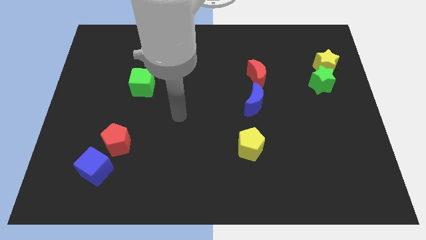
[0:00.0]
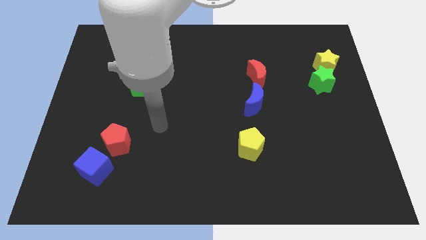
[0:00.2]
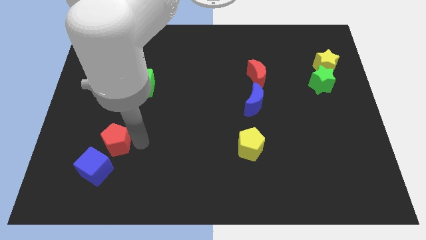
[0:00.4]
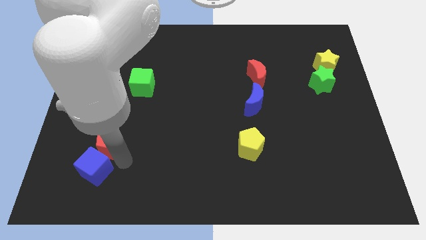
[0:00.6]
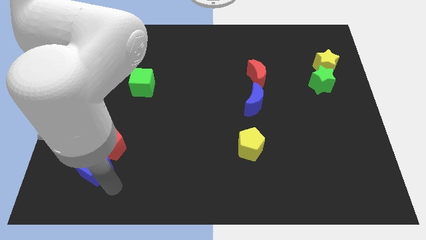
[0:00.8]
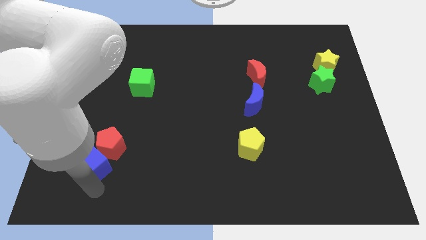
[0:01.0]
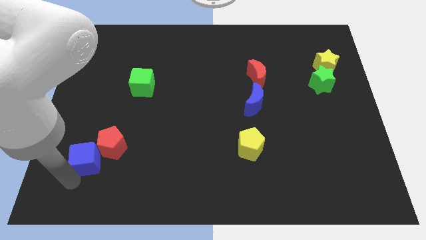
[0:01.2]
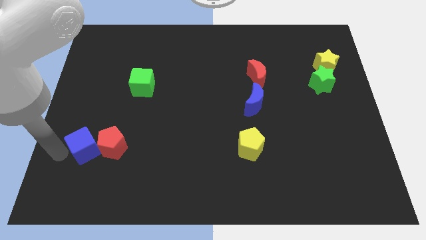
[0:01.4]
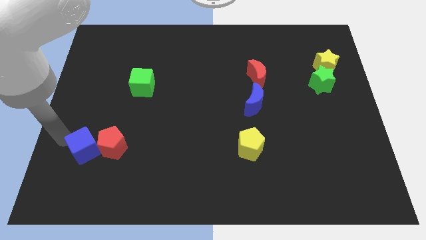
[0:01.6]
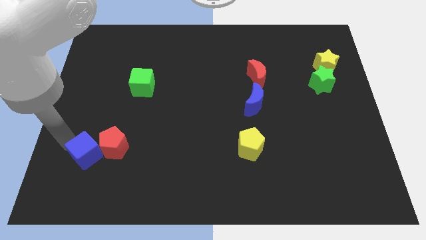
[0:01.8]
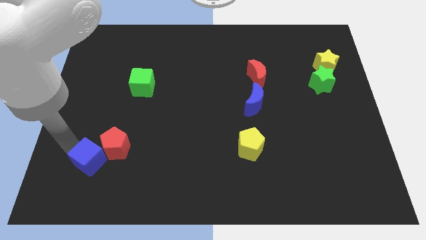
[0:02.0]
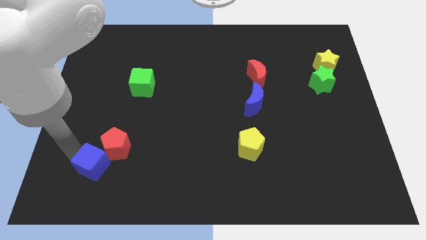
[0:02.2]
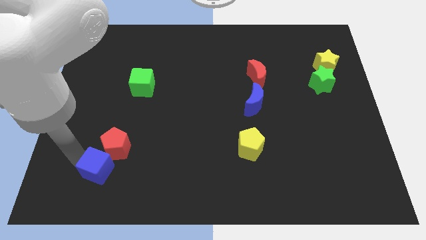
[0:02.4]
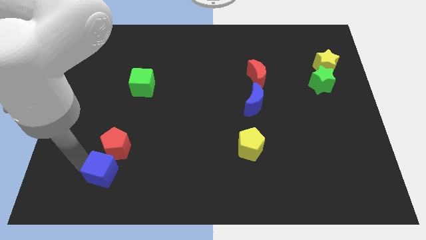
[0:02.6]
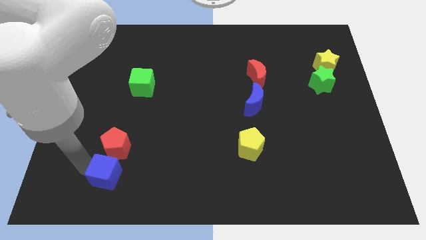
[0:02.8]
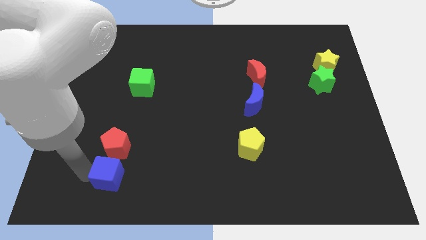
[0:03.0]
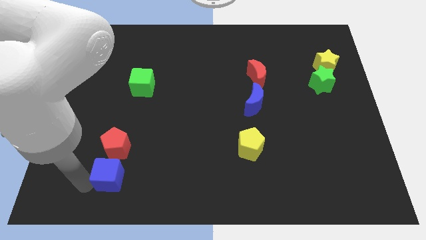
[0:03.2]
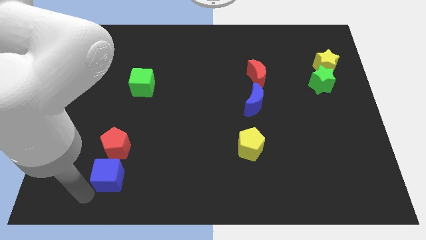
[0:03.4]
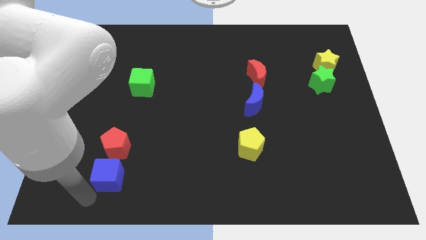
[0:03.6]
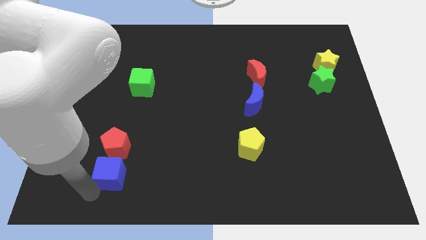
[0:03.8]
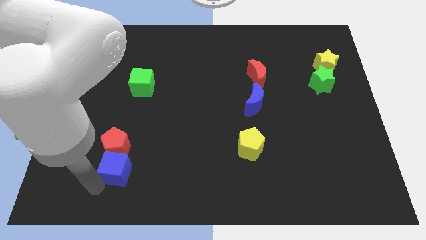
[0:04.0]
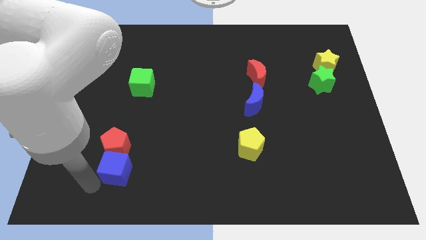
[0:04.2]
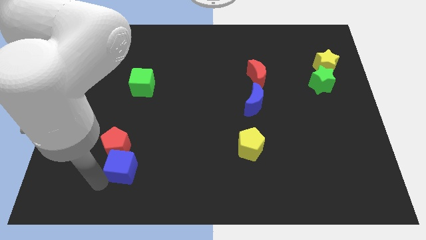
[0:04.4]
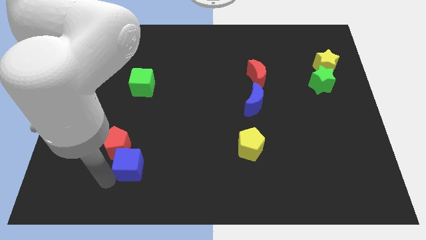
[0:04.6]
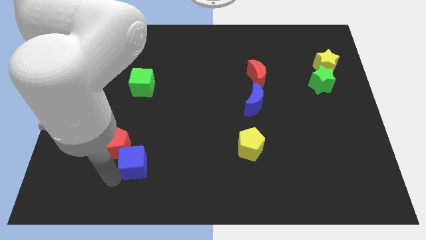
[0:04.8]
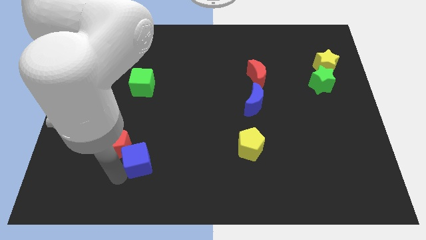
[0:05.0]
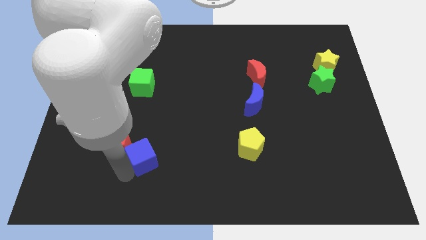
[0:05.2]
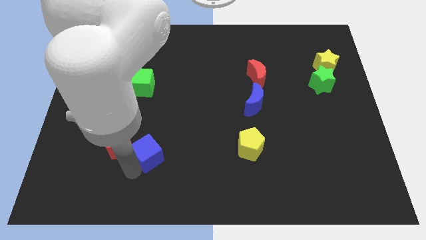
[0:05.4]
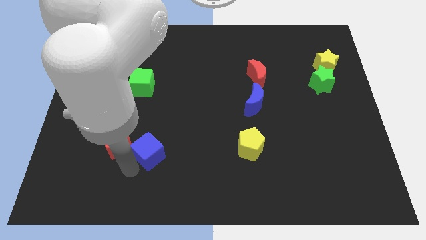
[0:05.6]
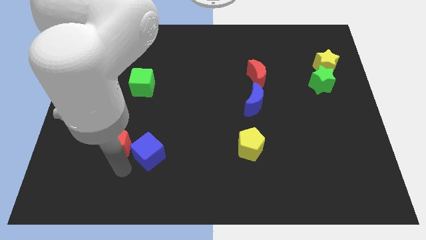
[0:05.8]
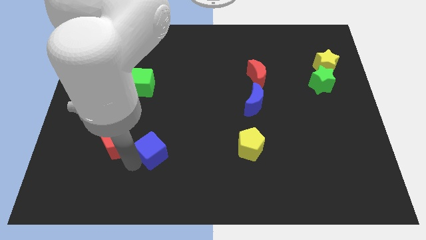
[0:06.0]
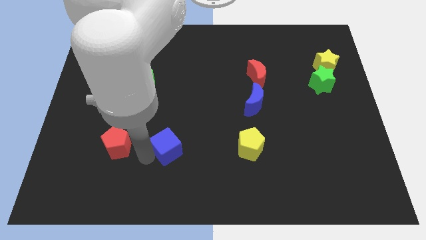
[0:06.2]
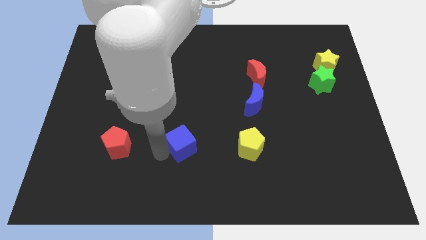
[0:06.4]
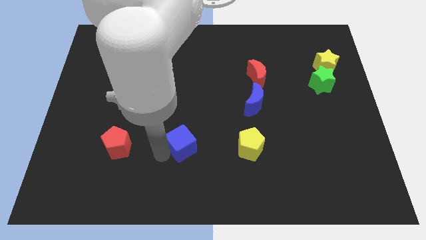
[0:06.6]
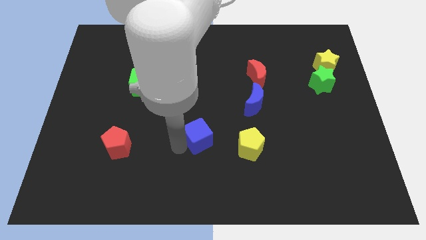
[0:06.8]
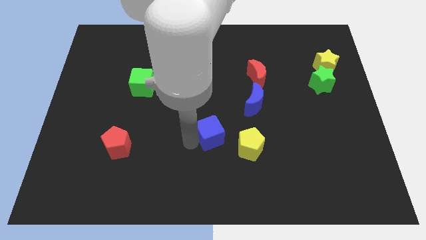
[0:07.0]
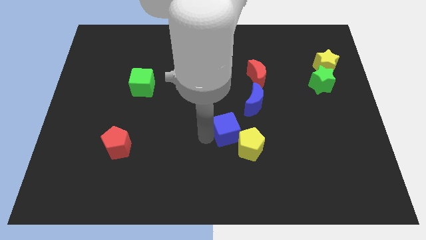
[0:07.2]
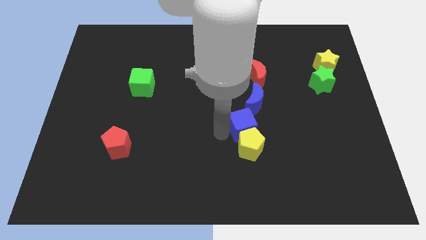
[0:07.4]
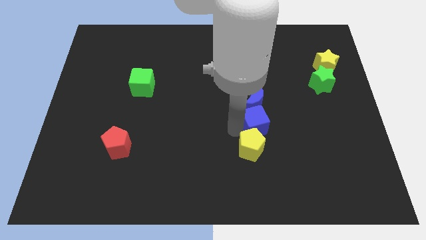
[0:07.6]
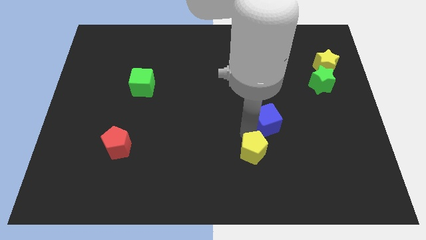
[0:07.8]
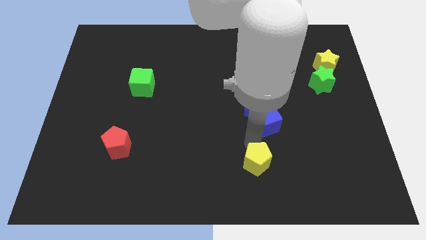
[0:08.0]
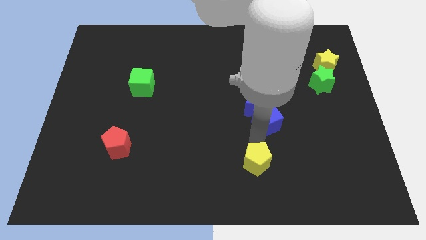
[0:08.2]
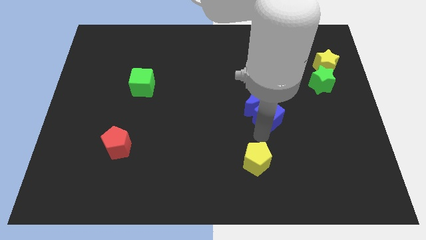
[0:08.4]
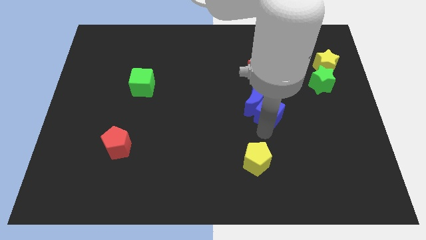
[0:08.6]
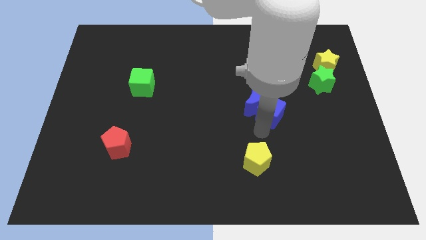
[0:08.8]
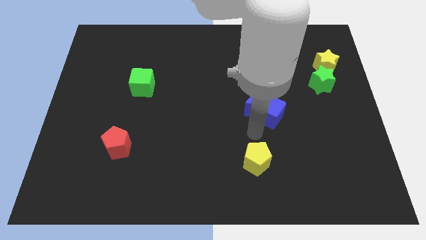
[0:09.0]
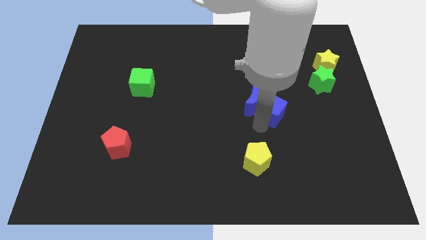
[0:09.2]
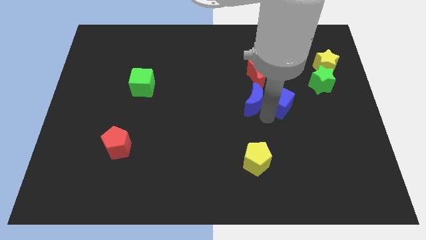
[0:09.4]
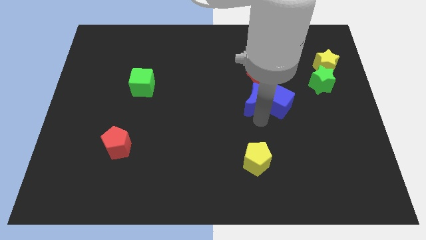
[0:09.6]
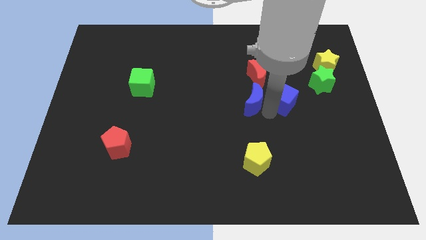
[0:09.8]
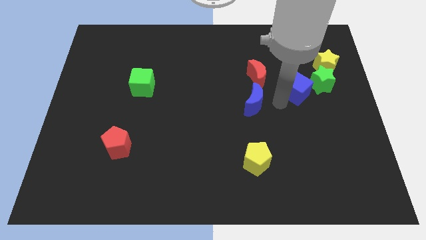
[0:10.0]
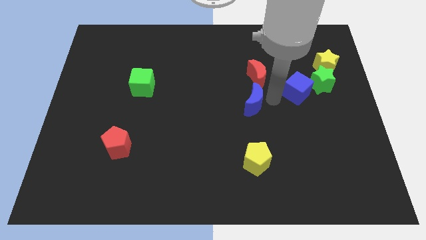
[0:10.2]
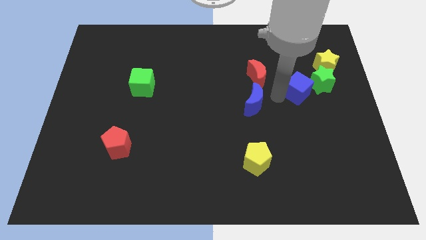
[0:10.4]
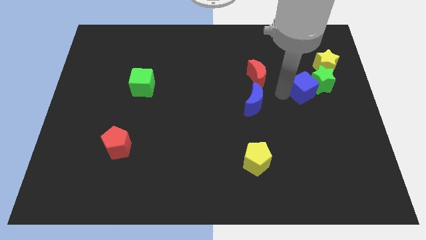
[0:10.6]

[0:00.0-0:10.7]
slide the blue cube close to the green star

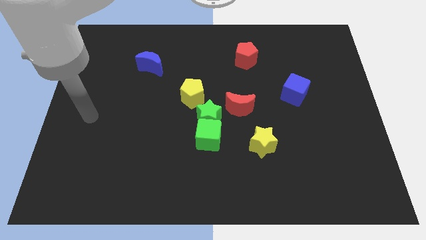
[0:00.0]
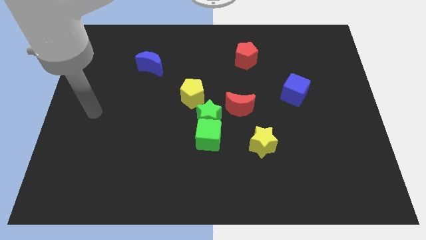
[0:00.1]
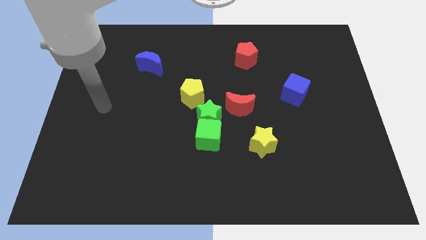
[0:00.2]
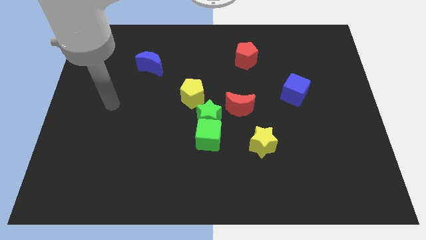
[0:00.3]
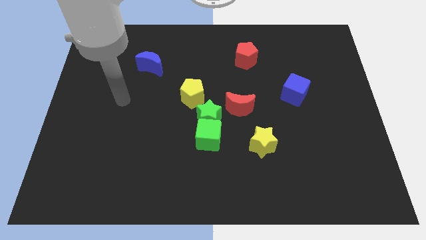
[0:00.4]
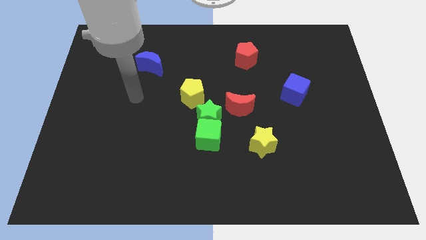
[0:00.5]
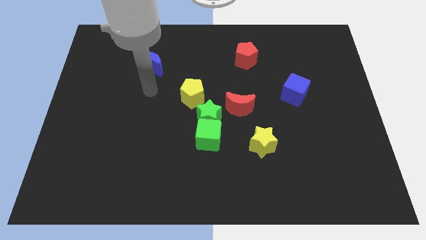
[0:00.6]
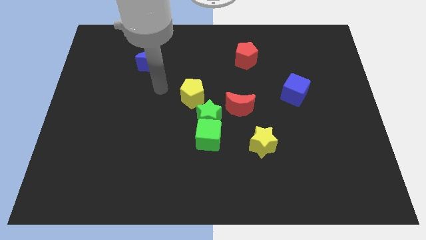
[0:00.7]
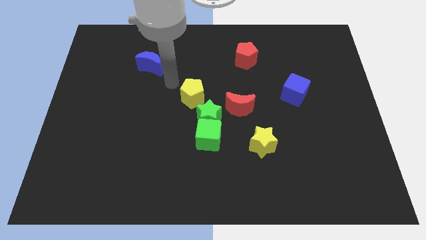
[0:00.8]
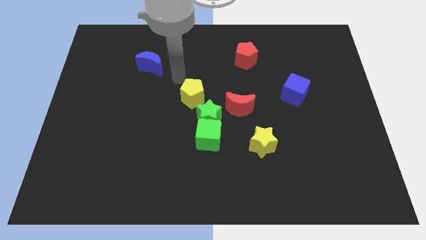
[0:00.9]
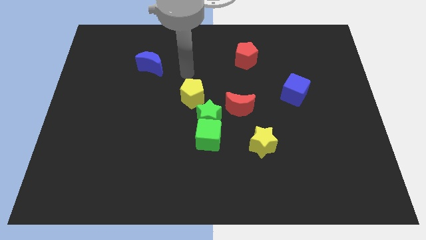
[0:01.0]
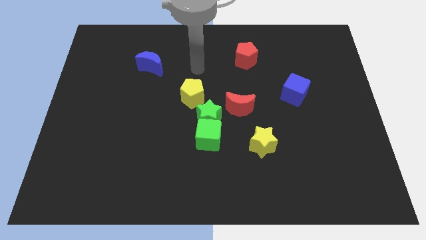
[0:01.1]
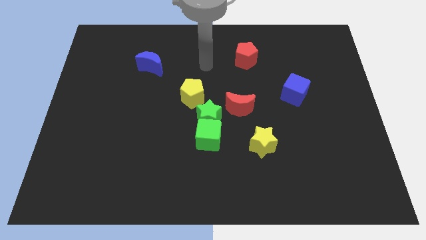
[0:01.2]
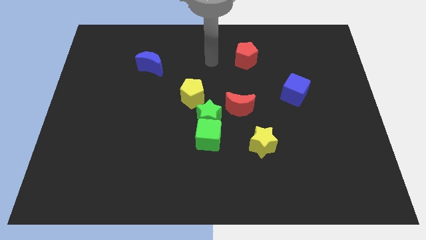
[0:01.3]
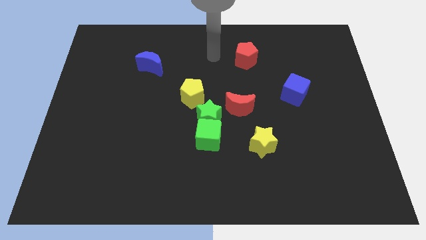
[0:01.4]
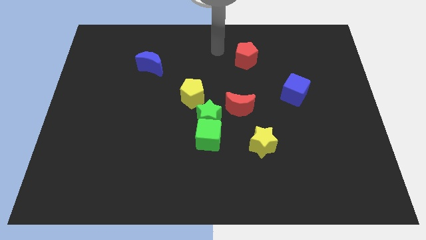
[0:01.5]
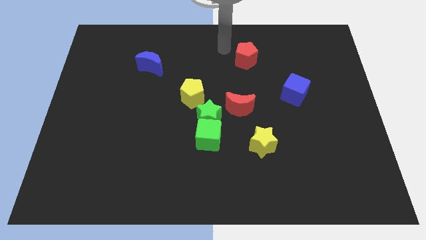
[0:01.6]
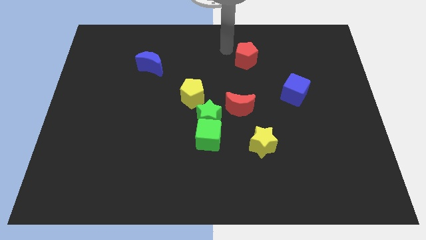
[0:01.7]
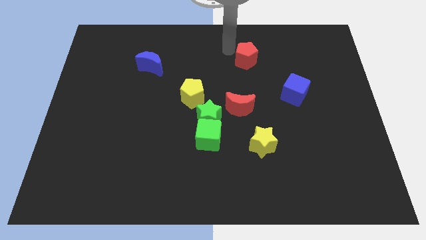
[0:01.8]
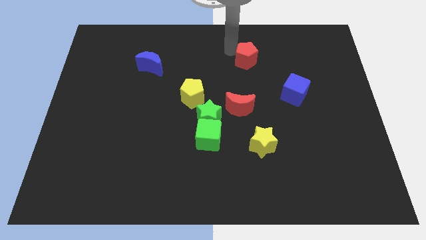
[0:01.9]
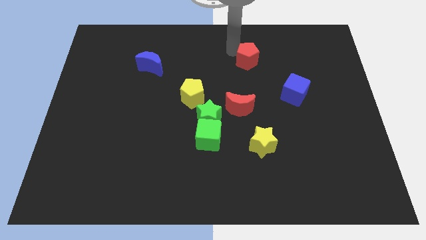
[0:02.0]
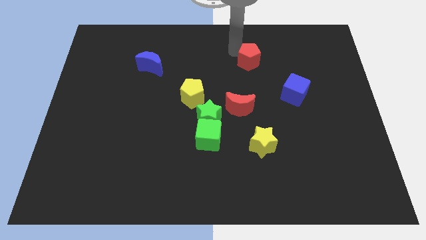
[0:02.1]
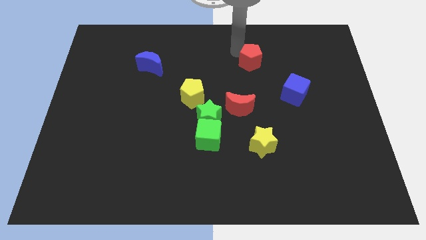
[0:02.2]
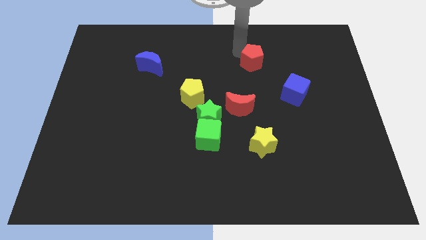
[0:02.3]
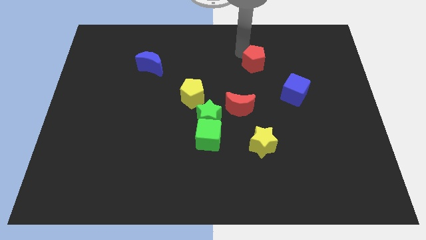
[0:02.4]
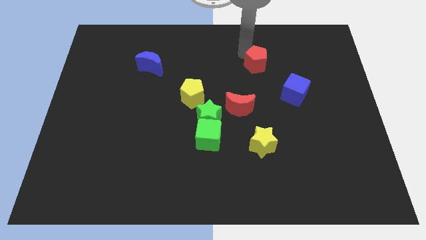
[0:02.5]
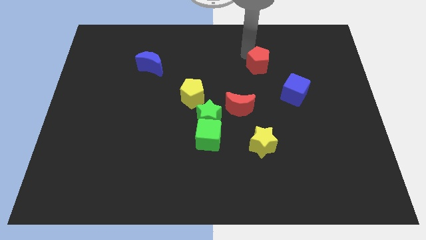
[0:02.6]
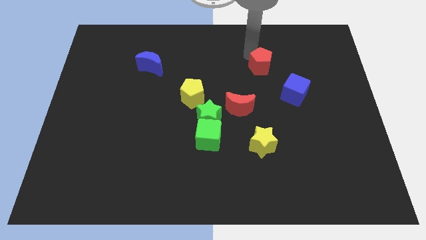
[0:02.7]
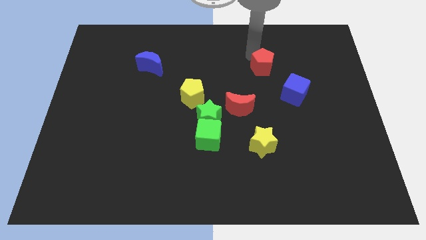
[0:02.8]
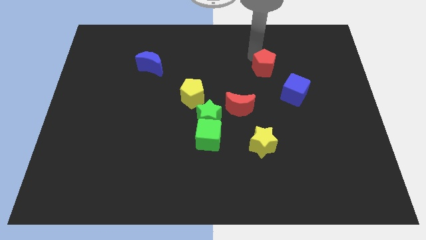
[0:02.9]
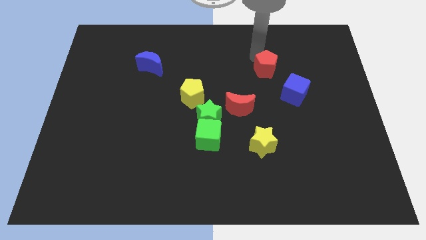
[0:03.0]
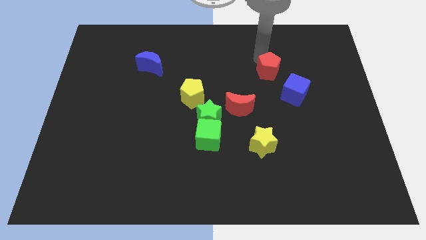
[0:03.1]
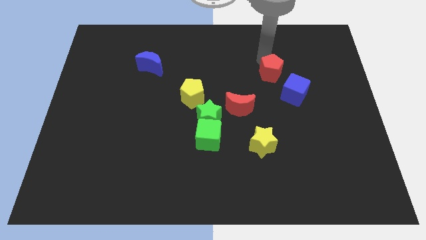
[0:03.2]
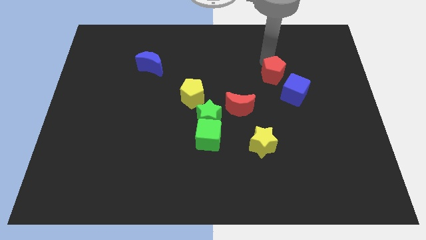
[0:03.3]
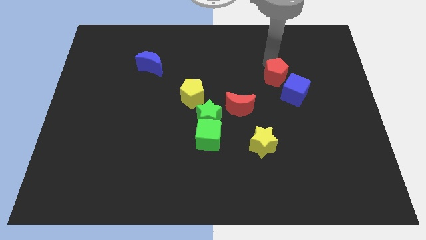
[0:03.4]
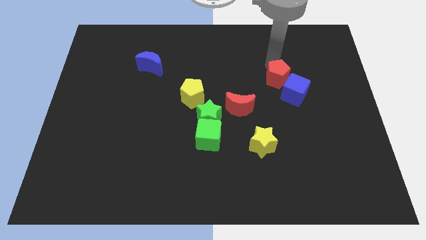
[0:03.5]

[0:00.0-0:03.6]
slide the red pentagon towards the blue cube
